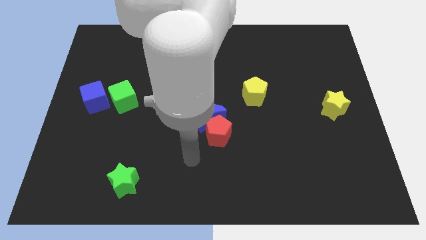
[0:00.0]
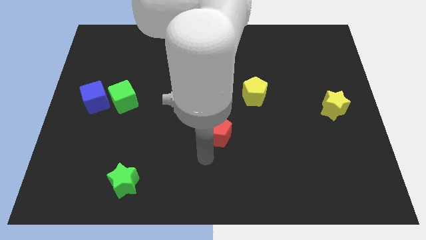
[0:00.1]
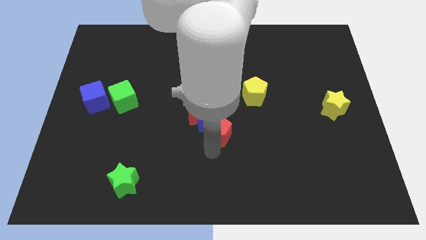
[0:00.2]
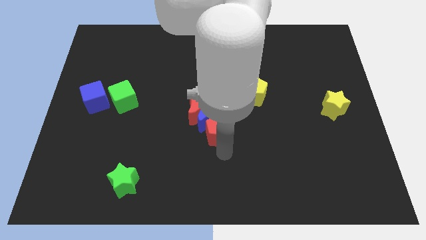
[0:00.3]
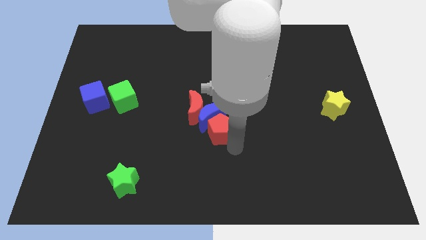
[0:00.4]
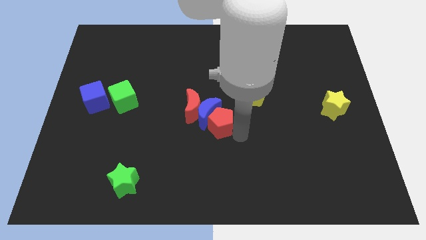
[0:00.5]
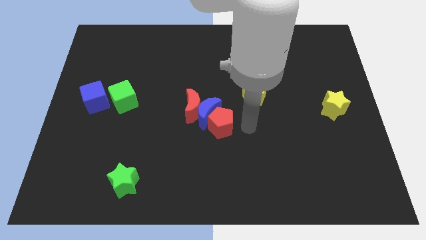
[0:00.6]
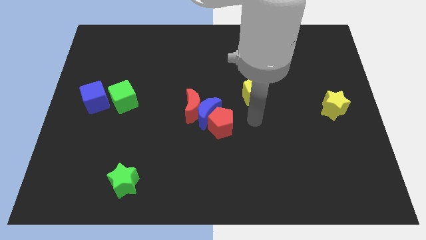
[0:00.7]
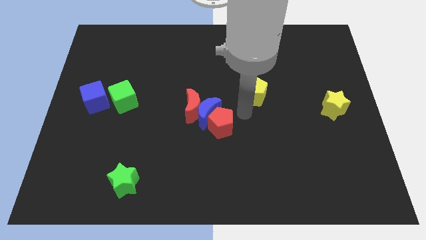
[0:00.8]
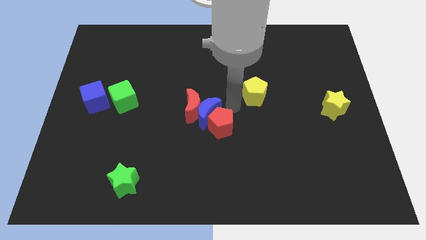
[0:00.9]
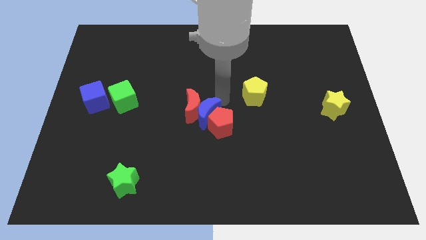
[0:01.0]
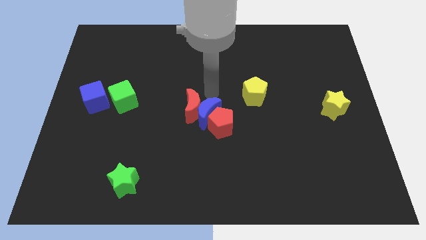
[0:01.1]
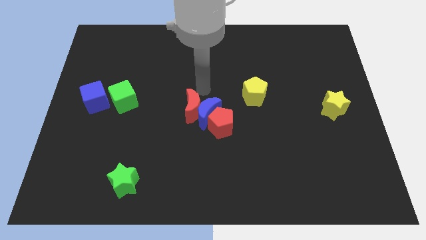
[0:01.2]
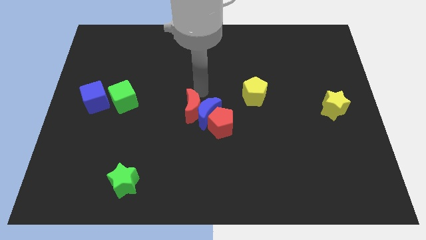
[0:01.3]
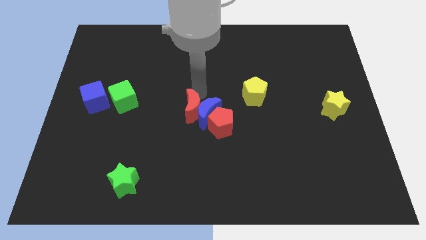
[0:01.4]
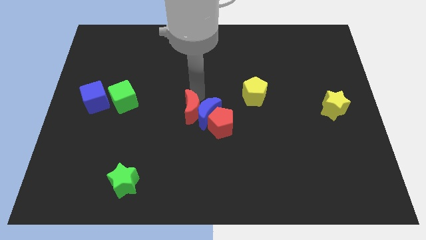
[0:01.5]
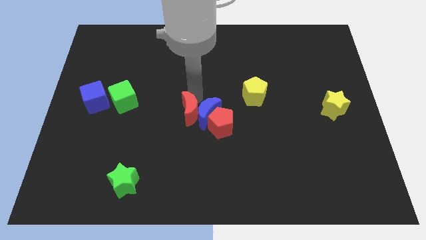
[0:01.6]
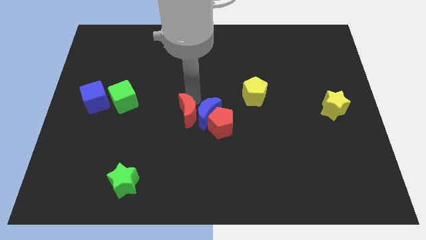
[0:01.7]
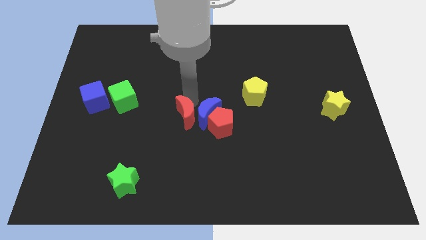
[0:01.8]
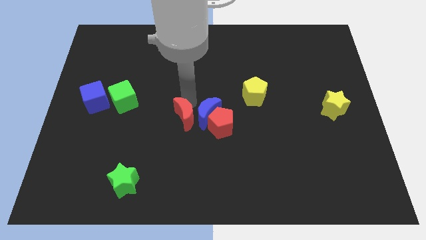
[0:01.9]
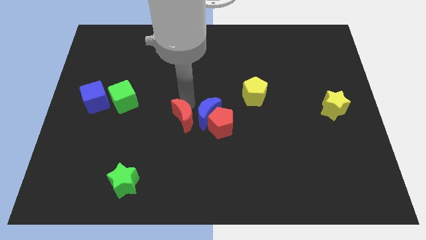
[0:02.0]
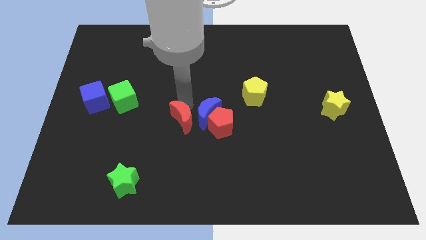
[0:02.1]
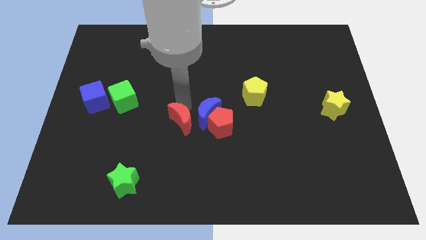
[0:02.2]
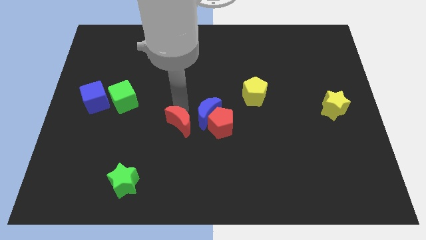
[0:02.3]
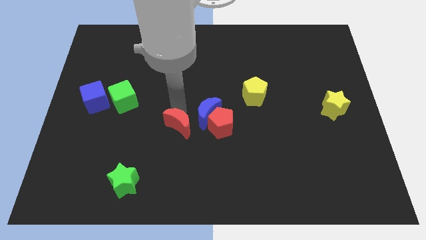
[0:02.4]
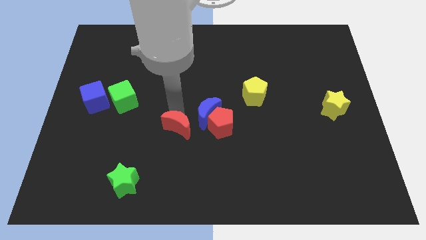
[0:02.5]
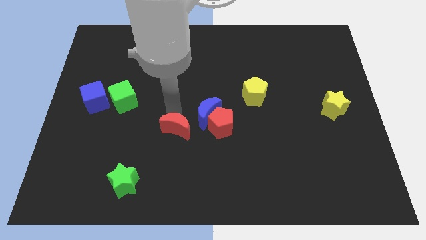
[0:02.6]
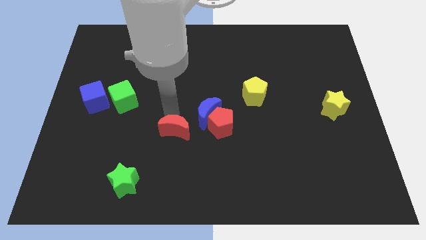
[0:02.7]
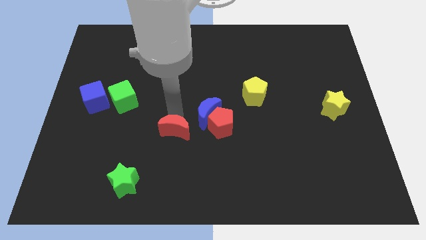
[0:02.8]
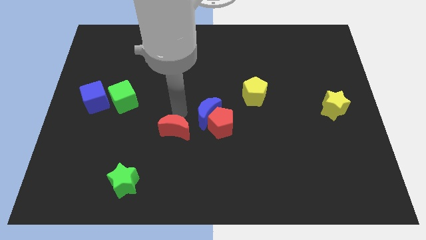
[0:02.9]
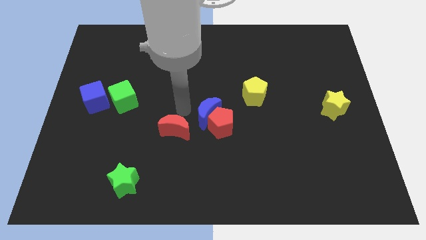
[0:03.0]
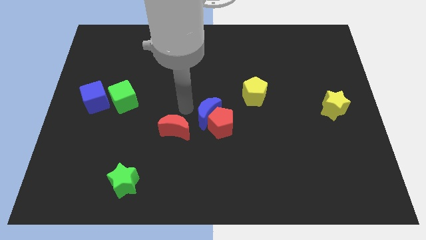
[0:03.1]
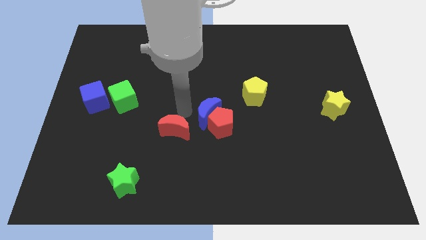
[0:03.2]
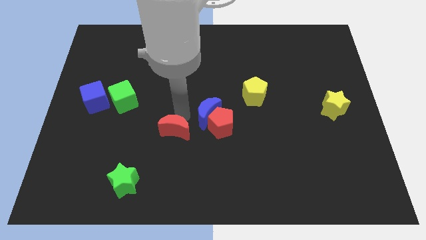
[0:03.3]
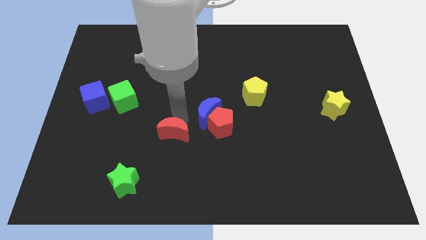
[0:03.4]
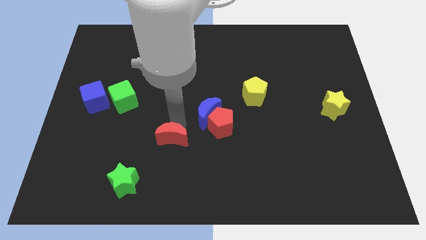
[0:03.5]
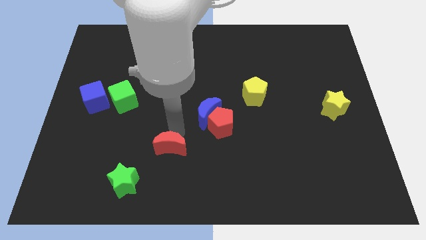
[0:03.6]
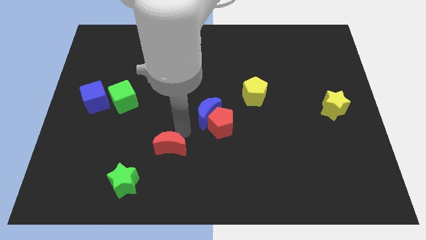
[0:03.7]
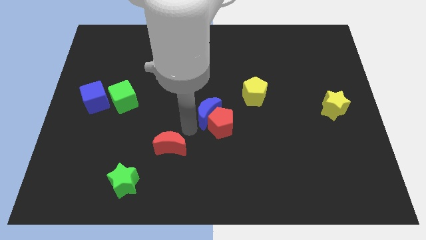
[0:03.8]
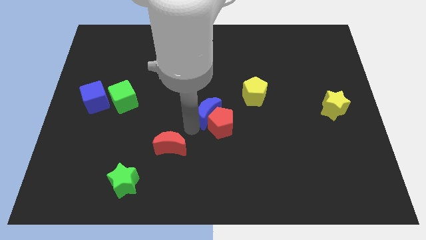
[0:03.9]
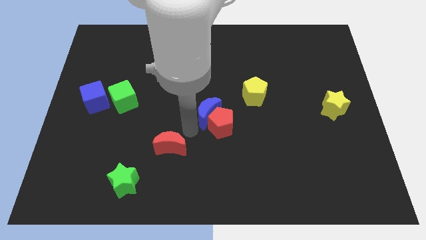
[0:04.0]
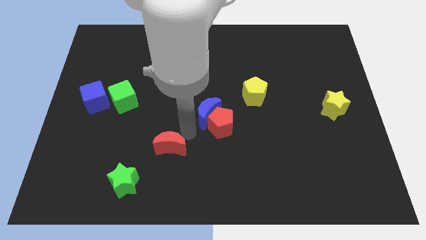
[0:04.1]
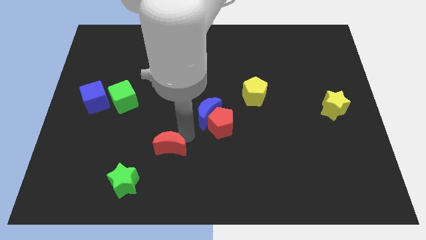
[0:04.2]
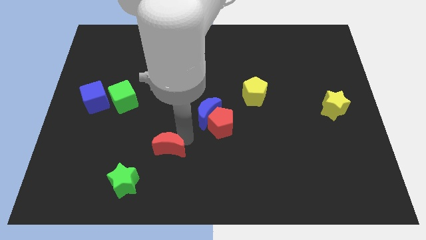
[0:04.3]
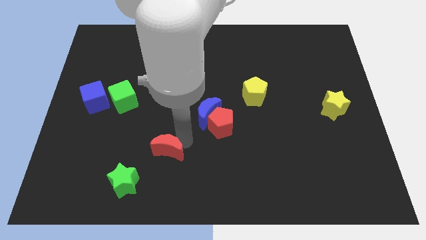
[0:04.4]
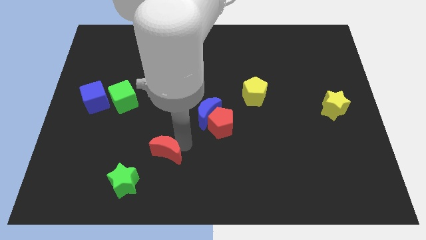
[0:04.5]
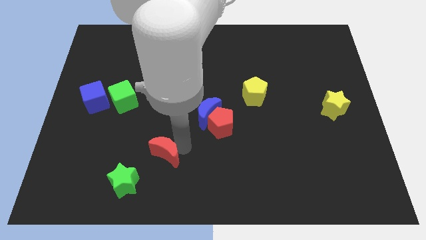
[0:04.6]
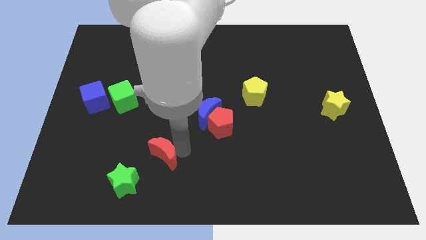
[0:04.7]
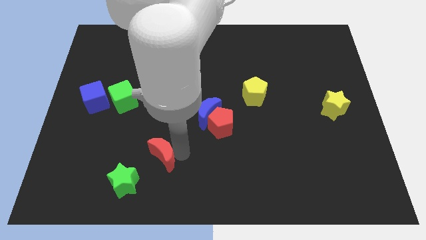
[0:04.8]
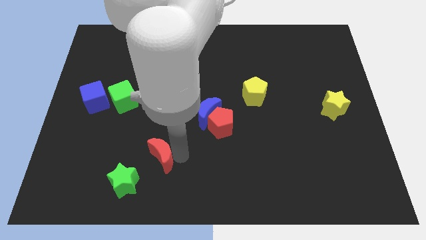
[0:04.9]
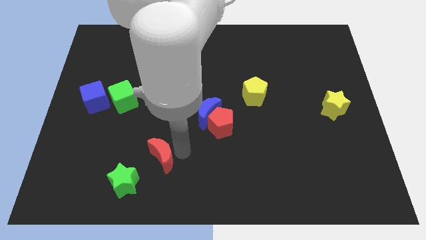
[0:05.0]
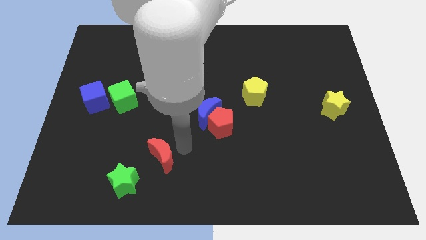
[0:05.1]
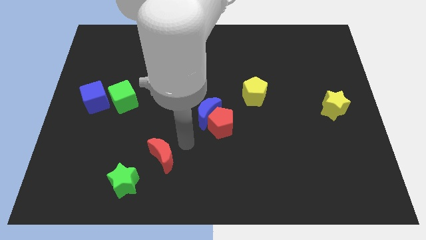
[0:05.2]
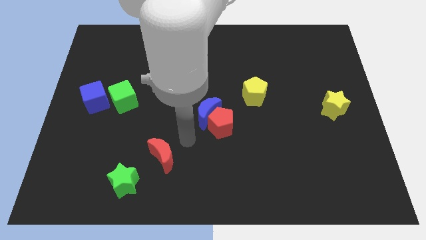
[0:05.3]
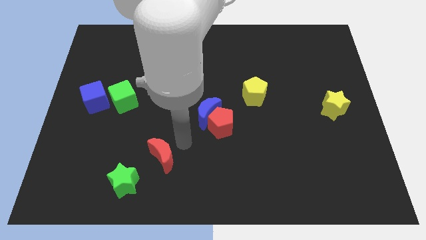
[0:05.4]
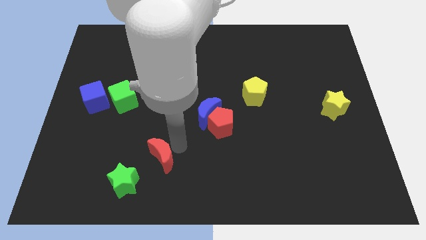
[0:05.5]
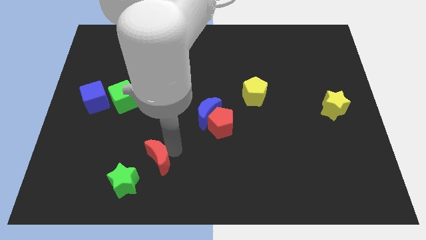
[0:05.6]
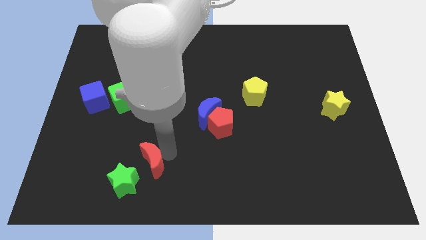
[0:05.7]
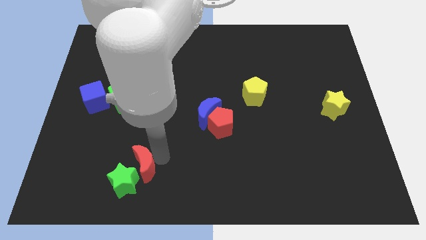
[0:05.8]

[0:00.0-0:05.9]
slide the red moon next to the green star

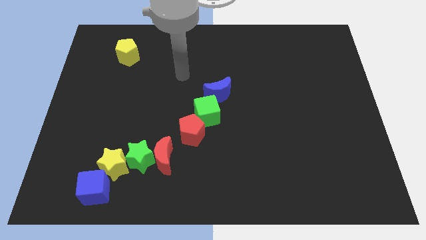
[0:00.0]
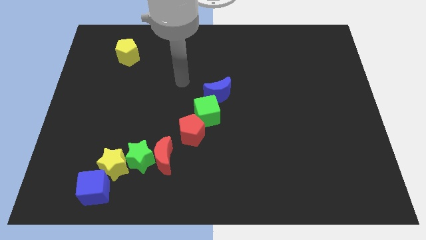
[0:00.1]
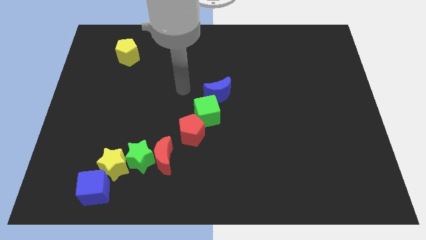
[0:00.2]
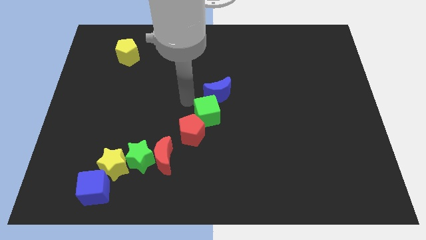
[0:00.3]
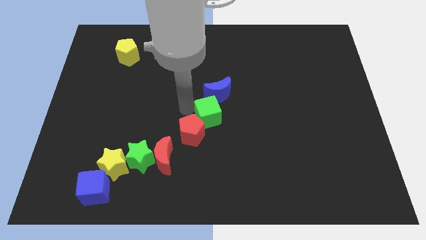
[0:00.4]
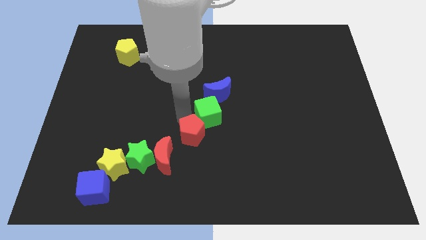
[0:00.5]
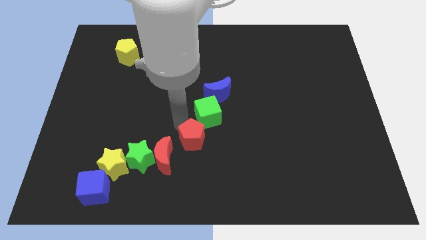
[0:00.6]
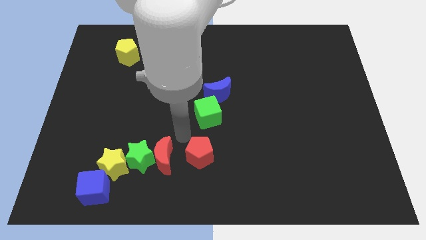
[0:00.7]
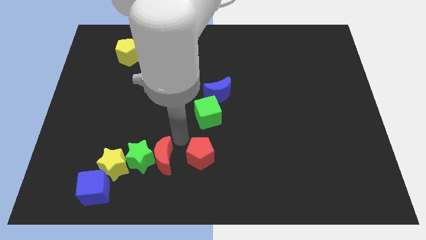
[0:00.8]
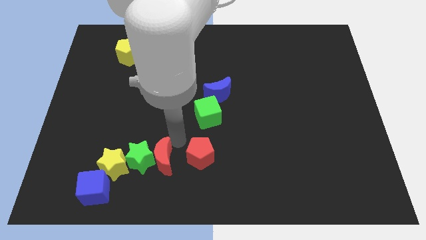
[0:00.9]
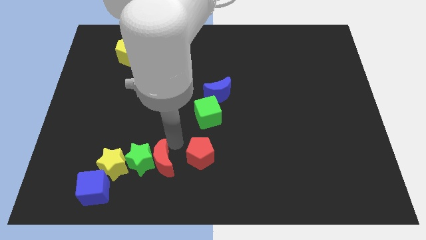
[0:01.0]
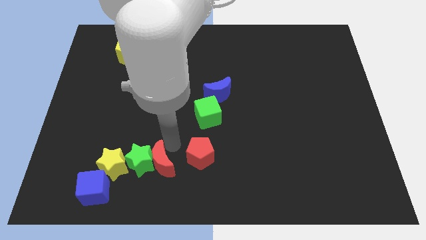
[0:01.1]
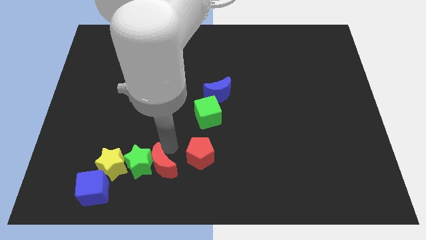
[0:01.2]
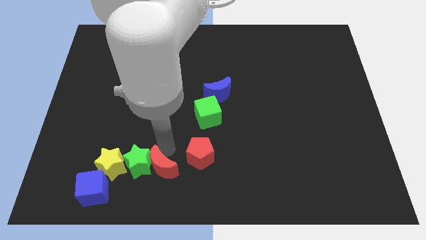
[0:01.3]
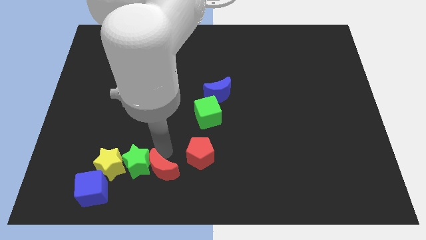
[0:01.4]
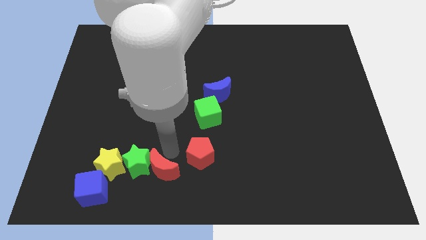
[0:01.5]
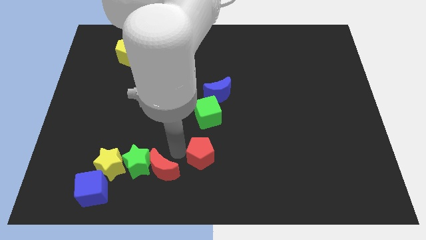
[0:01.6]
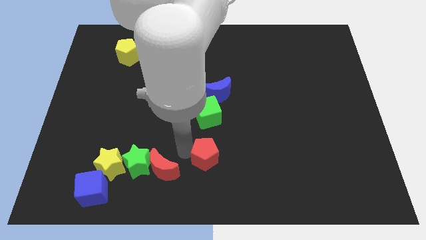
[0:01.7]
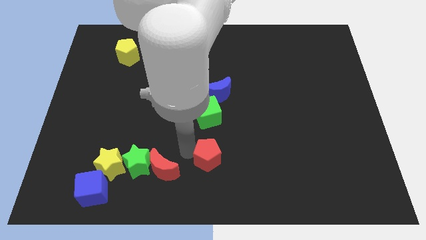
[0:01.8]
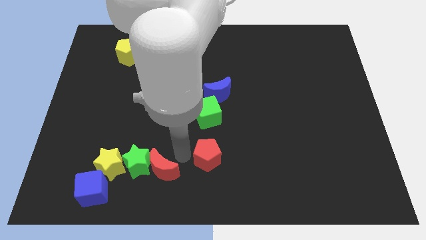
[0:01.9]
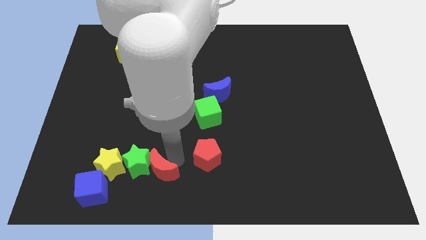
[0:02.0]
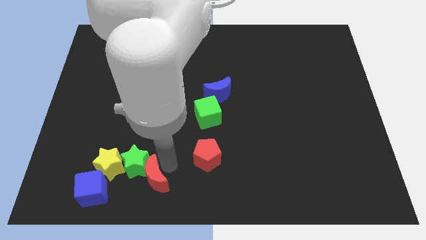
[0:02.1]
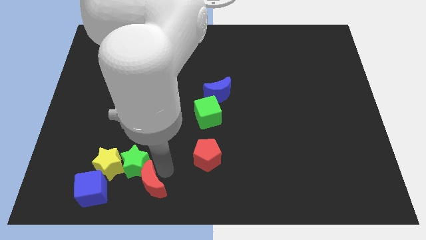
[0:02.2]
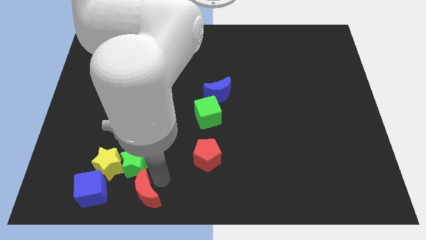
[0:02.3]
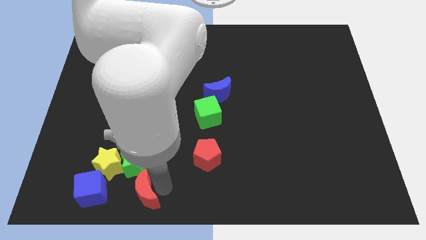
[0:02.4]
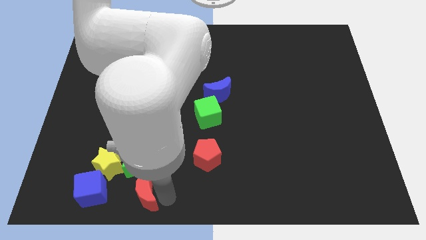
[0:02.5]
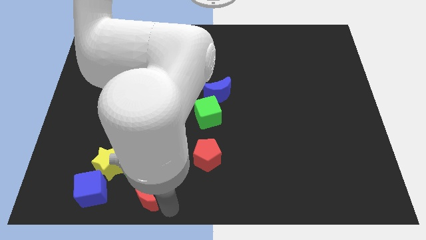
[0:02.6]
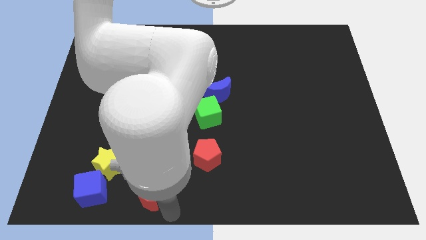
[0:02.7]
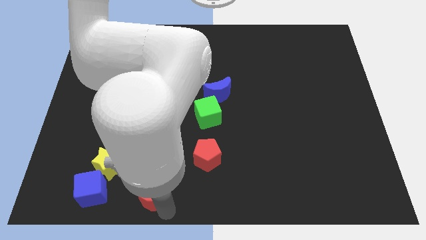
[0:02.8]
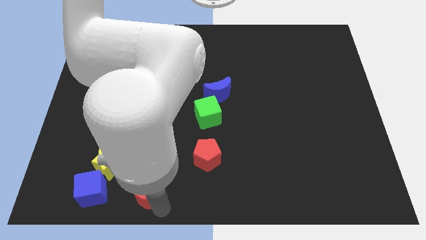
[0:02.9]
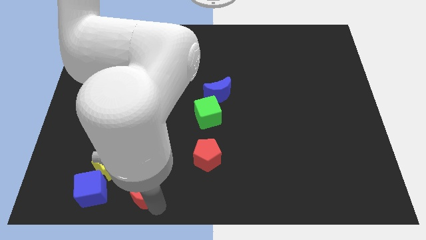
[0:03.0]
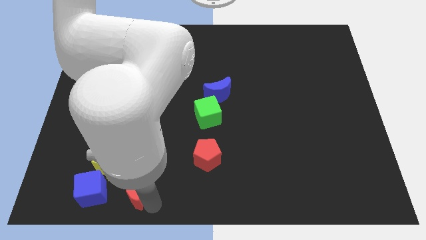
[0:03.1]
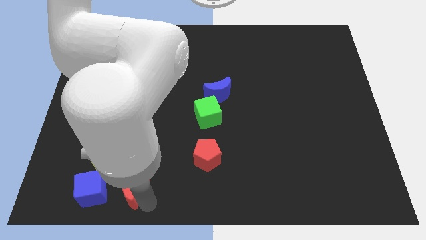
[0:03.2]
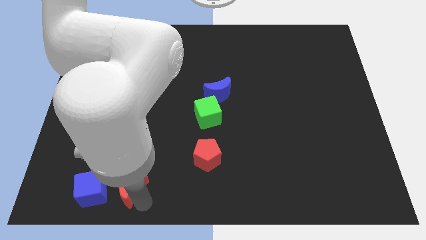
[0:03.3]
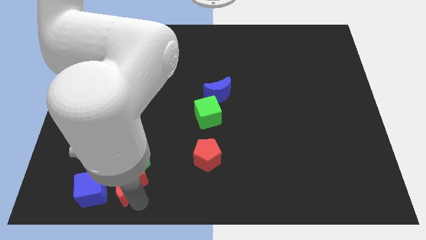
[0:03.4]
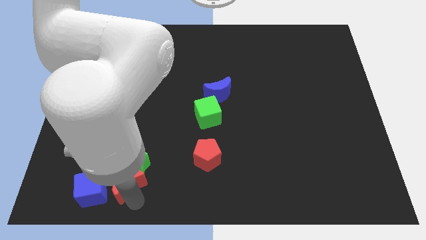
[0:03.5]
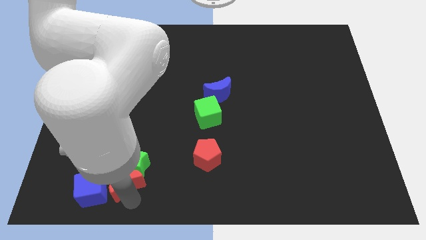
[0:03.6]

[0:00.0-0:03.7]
put the red moon towards the yellow star
